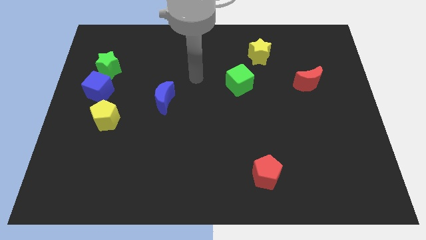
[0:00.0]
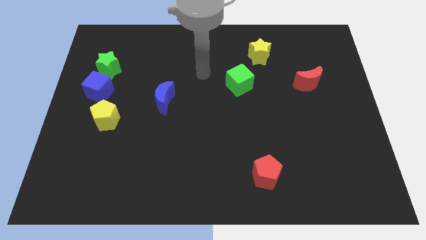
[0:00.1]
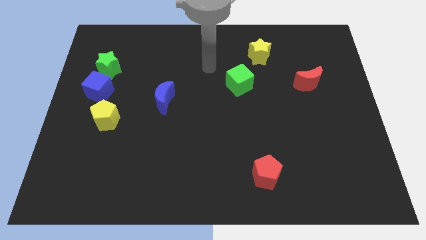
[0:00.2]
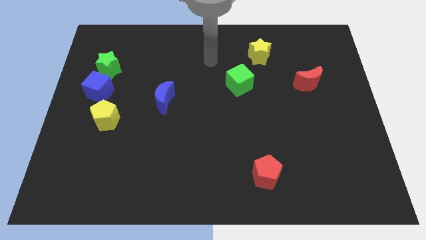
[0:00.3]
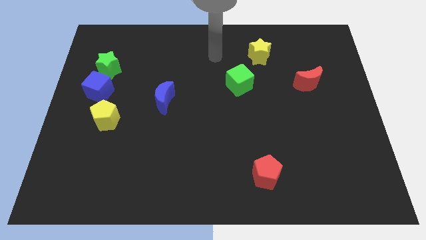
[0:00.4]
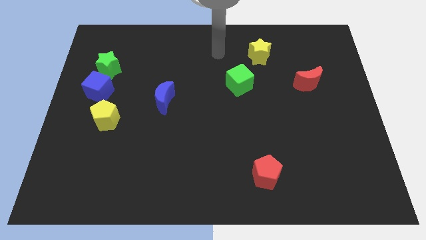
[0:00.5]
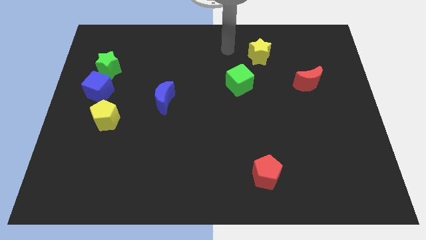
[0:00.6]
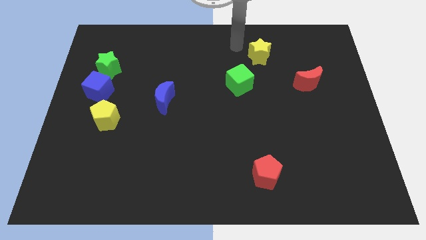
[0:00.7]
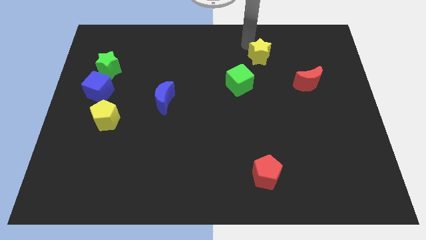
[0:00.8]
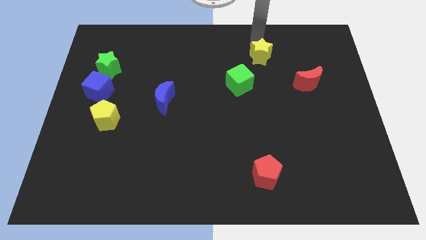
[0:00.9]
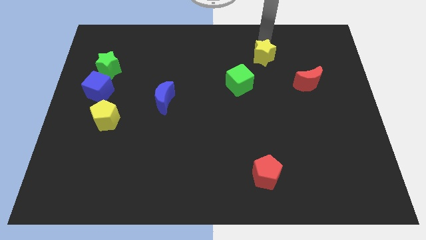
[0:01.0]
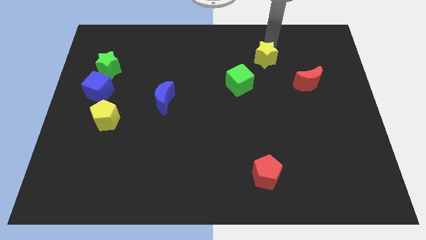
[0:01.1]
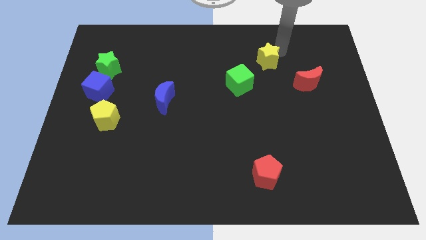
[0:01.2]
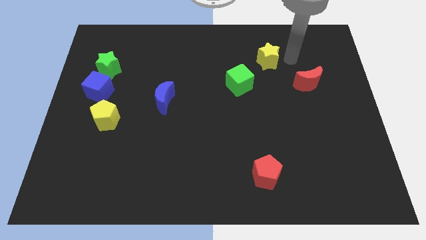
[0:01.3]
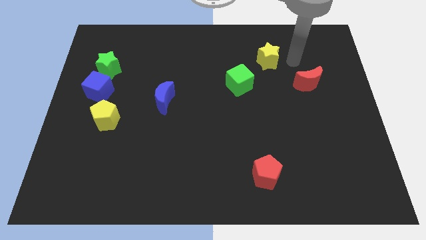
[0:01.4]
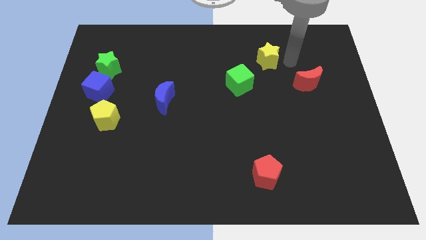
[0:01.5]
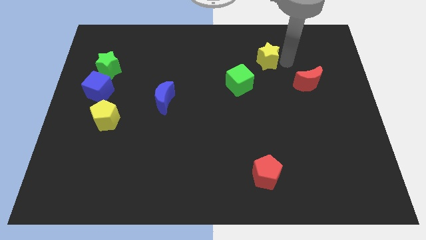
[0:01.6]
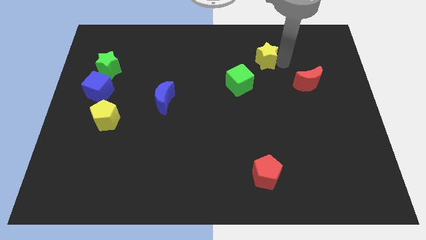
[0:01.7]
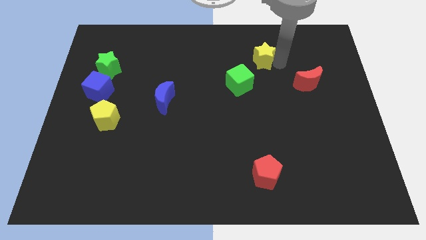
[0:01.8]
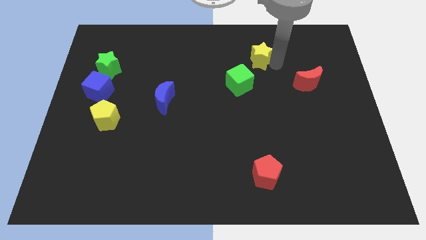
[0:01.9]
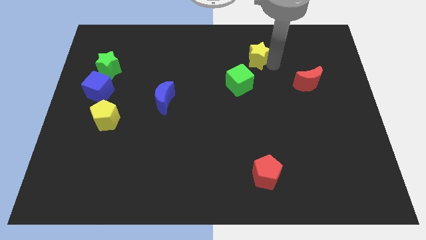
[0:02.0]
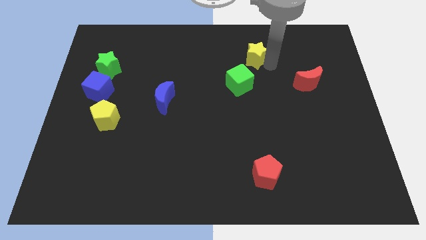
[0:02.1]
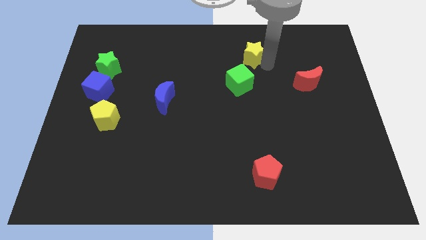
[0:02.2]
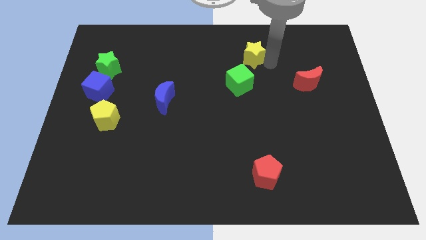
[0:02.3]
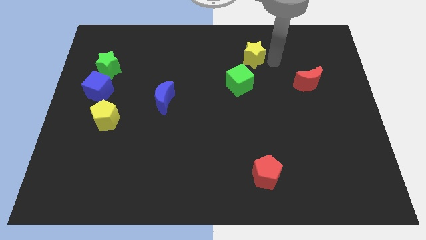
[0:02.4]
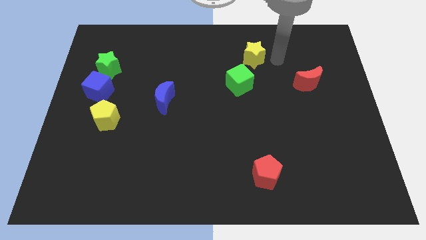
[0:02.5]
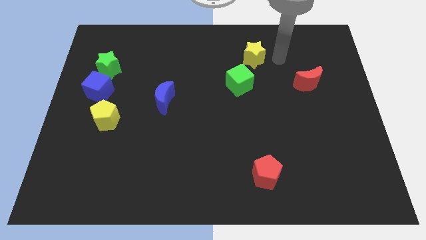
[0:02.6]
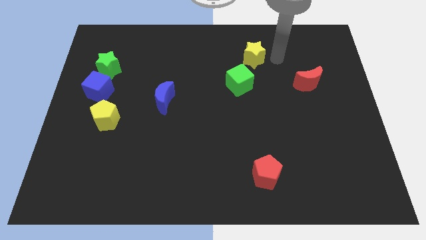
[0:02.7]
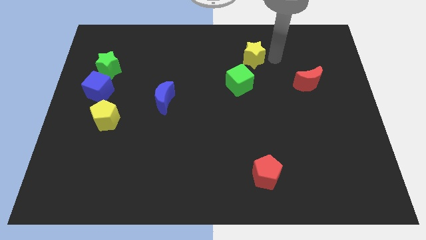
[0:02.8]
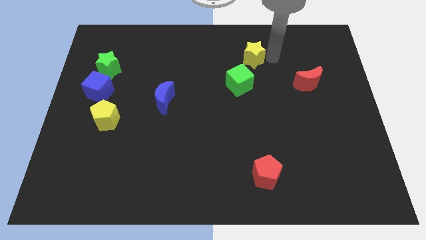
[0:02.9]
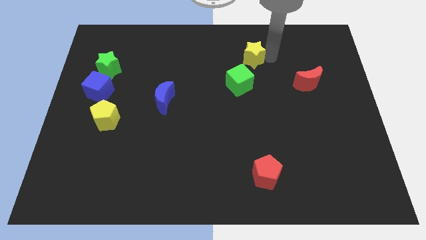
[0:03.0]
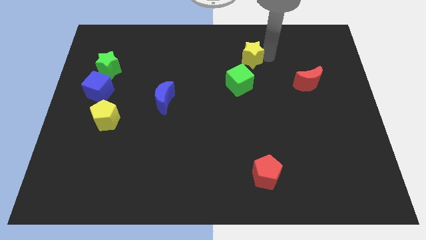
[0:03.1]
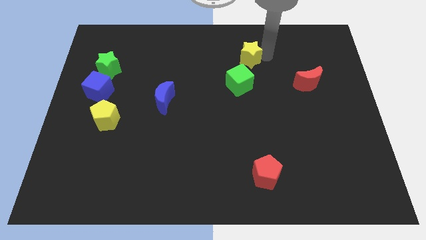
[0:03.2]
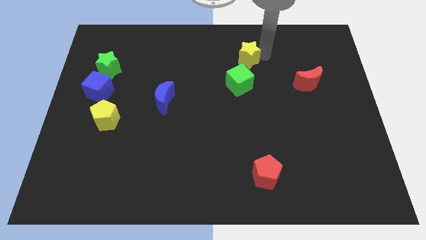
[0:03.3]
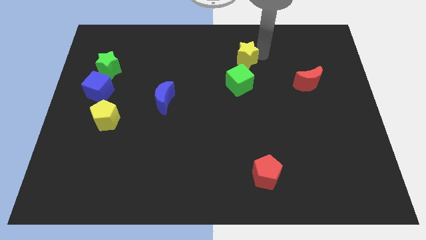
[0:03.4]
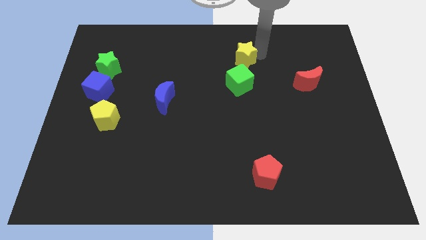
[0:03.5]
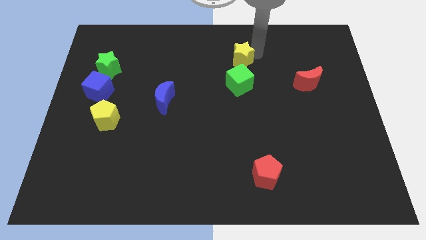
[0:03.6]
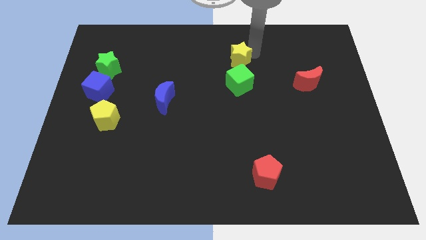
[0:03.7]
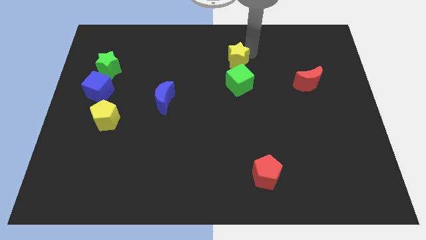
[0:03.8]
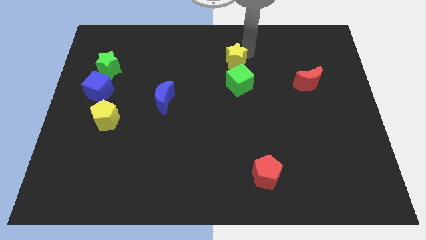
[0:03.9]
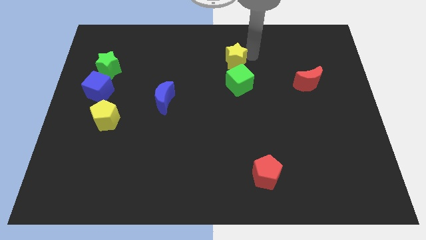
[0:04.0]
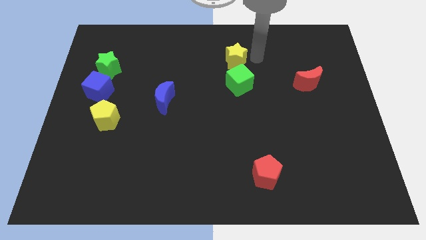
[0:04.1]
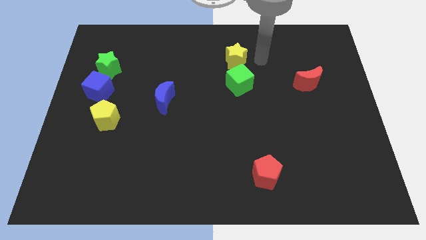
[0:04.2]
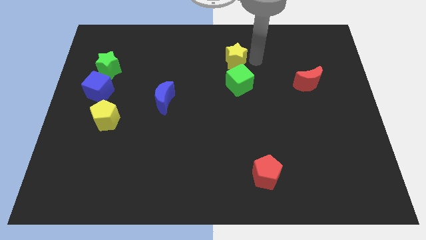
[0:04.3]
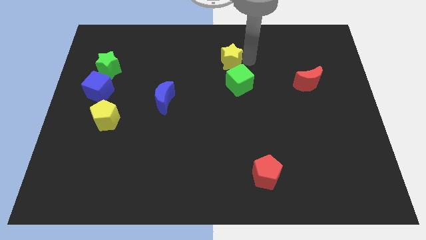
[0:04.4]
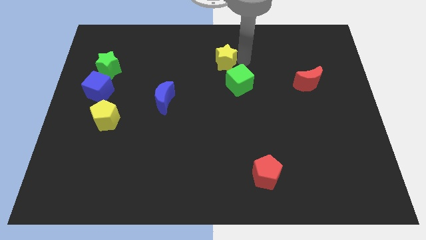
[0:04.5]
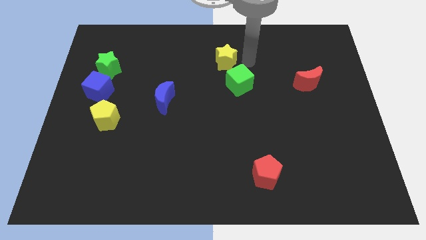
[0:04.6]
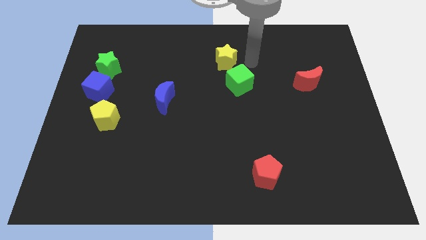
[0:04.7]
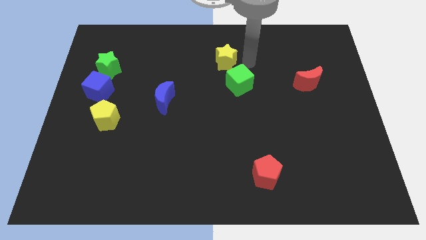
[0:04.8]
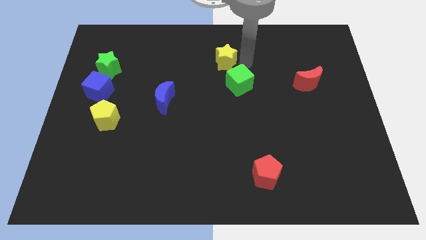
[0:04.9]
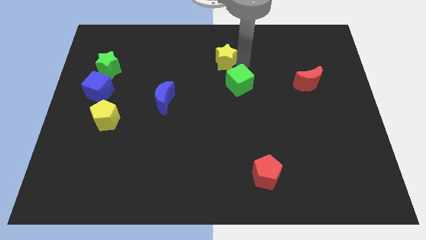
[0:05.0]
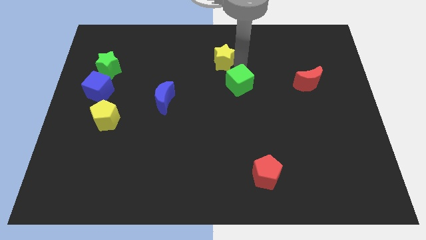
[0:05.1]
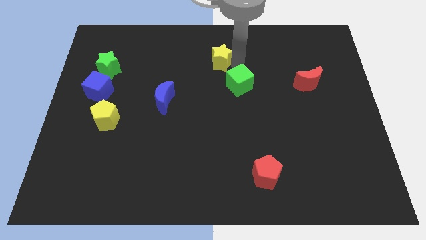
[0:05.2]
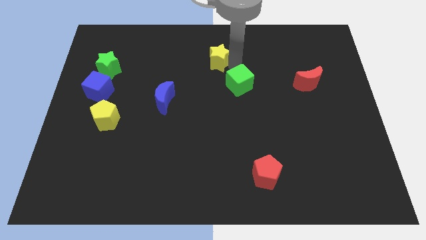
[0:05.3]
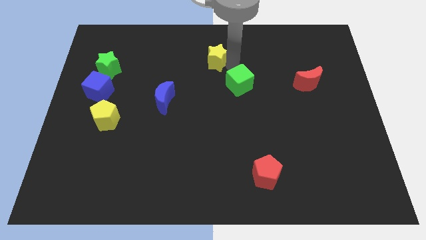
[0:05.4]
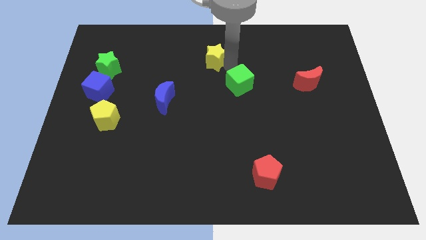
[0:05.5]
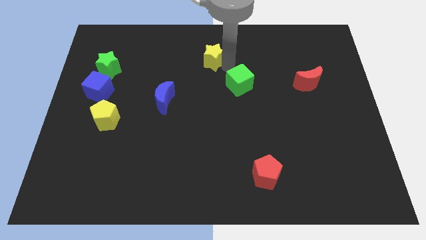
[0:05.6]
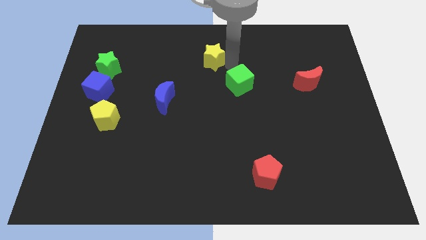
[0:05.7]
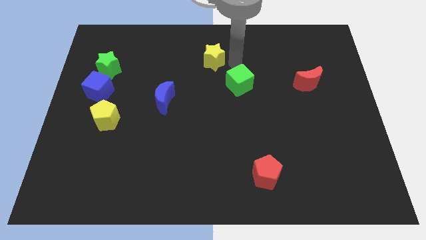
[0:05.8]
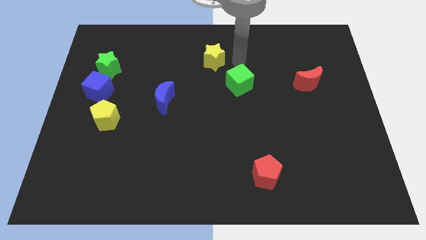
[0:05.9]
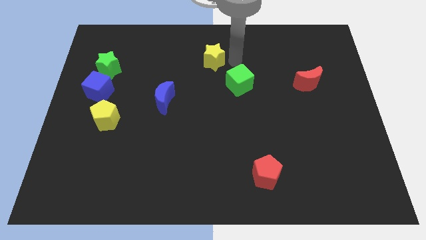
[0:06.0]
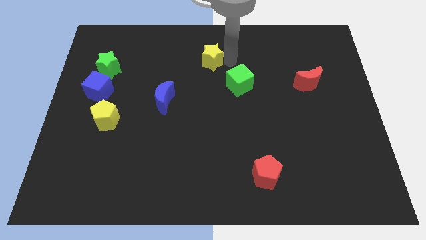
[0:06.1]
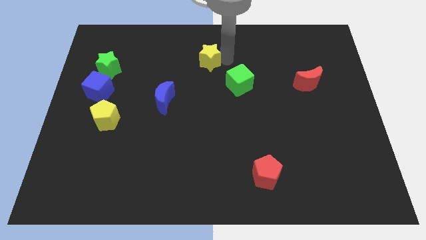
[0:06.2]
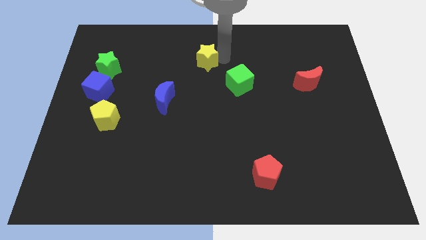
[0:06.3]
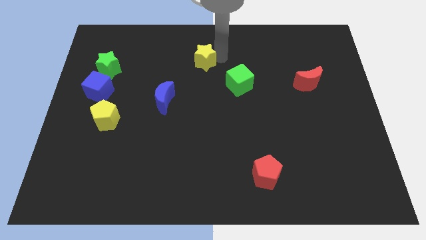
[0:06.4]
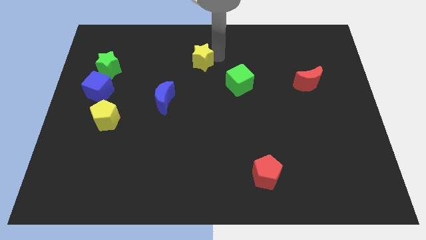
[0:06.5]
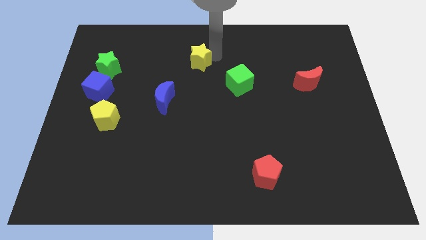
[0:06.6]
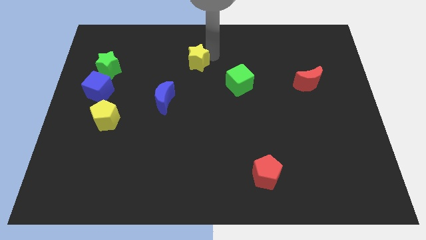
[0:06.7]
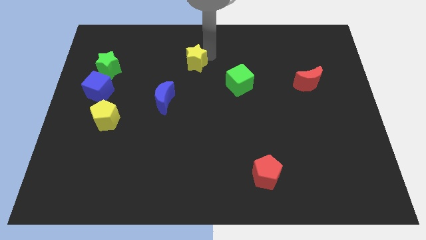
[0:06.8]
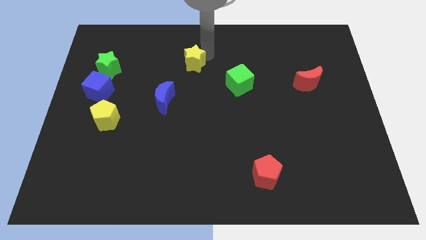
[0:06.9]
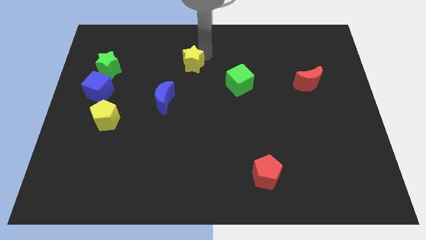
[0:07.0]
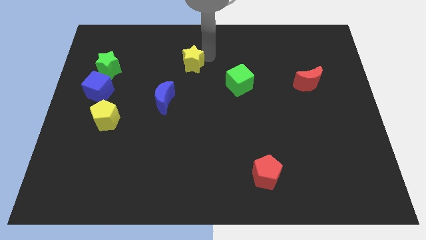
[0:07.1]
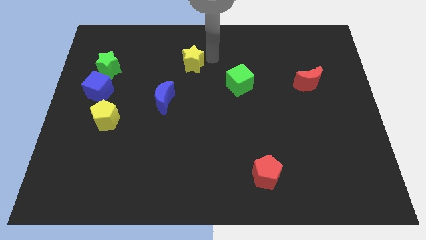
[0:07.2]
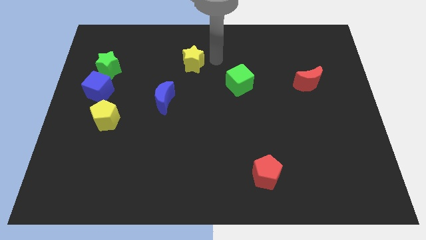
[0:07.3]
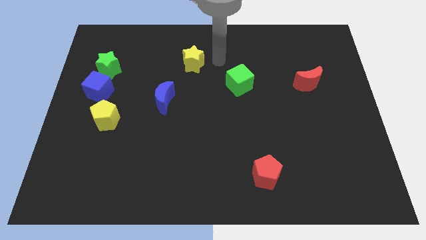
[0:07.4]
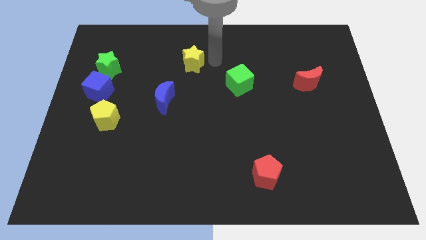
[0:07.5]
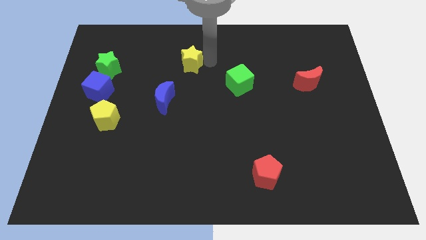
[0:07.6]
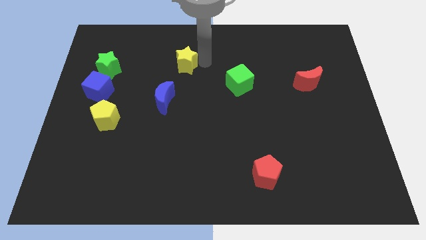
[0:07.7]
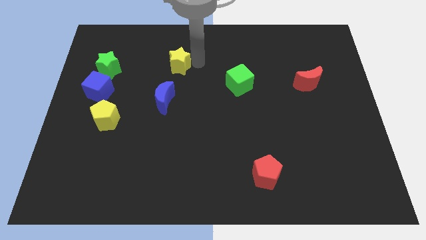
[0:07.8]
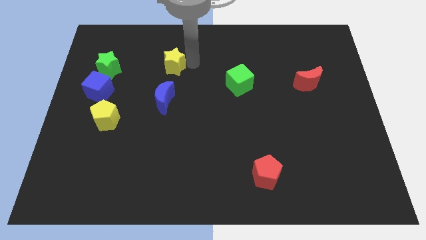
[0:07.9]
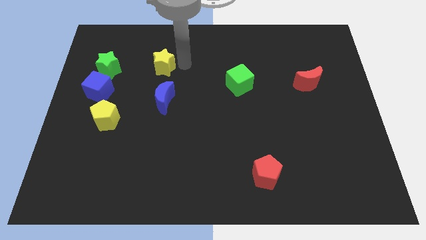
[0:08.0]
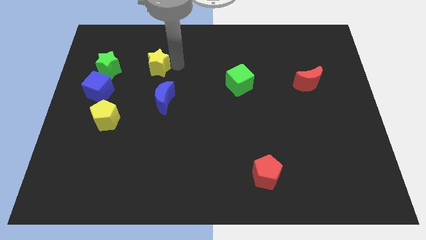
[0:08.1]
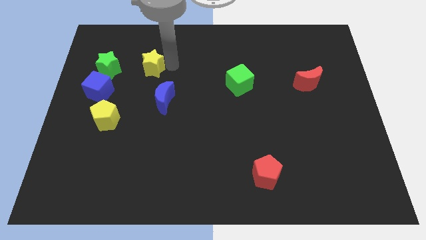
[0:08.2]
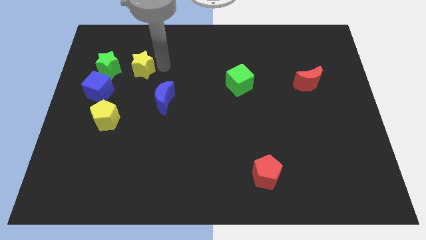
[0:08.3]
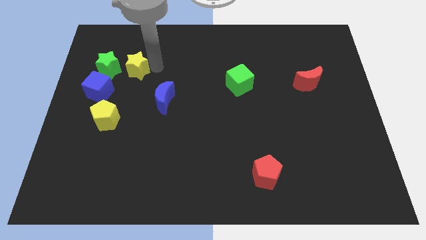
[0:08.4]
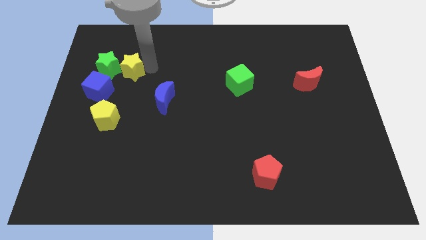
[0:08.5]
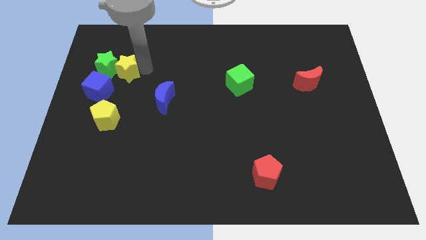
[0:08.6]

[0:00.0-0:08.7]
move the yellow star to the green star
